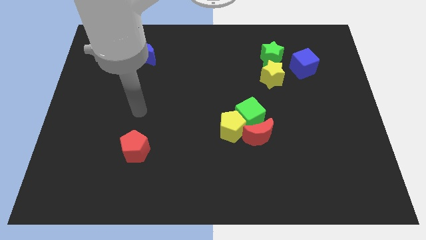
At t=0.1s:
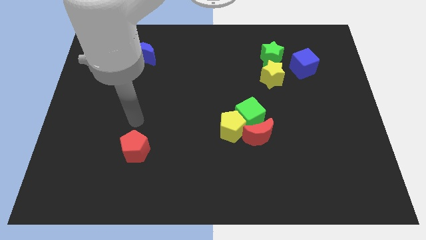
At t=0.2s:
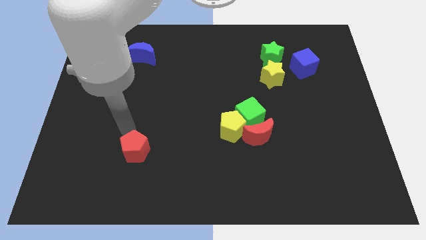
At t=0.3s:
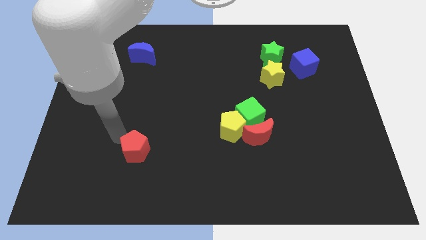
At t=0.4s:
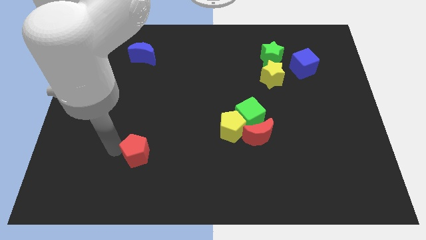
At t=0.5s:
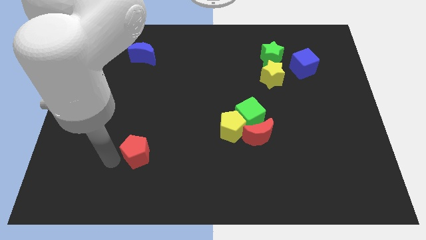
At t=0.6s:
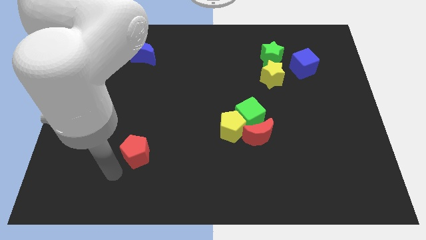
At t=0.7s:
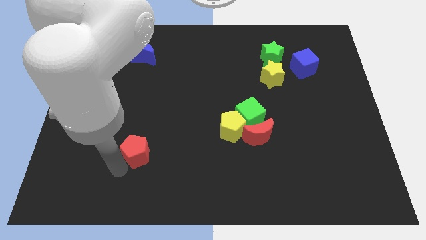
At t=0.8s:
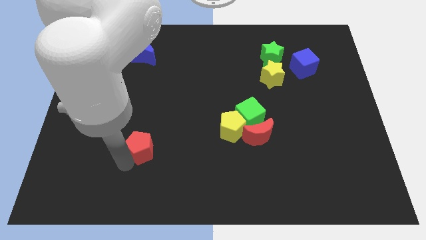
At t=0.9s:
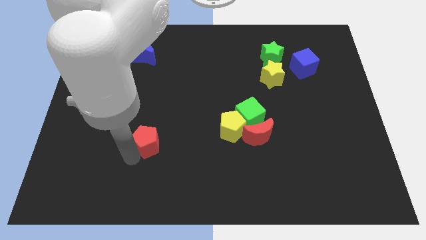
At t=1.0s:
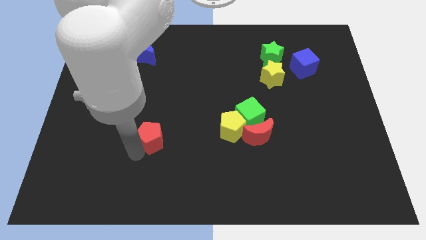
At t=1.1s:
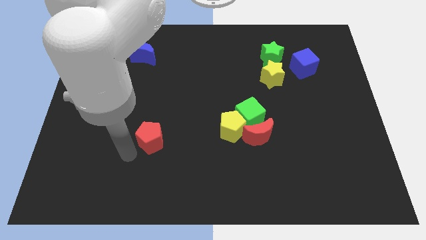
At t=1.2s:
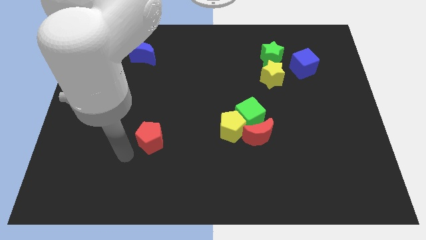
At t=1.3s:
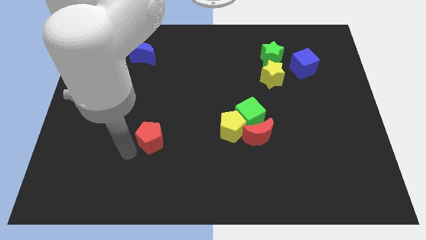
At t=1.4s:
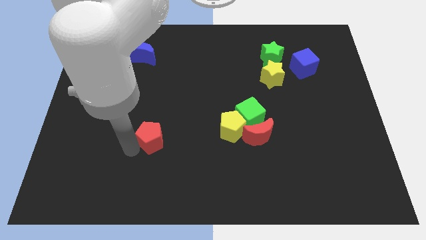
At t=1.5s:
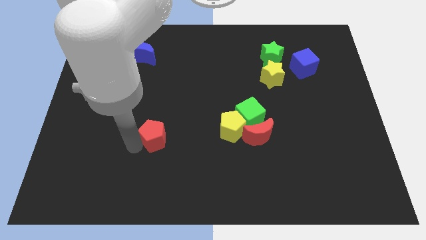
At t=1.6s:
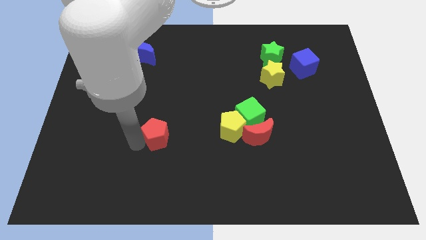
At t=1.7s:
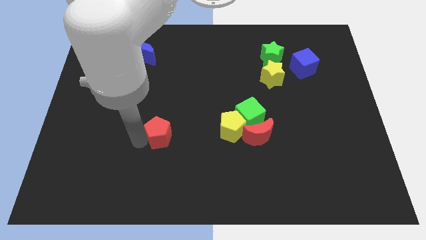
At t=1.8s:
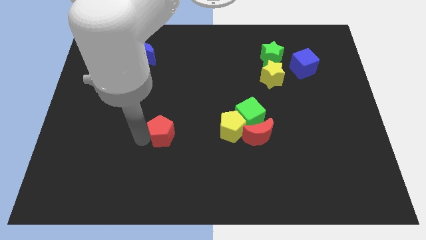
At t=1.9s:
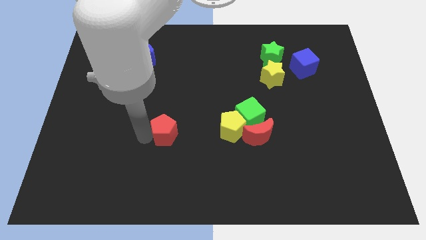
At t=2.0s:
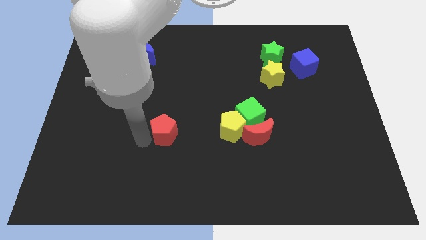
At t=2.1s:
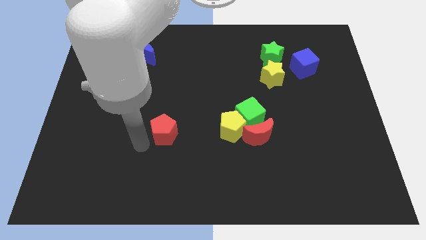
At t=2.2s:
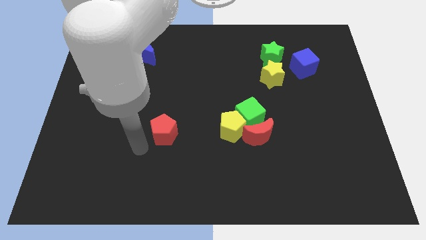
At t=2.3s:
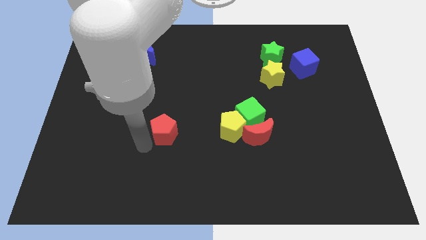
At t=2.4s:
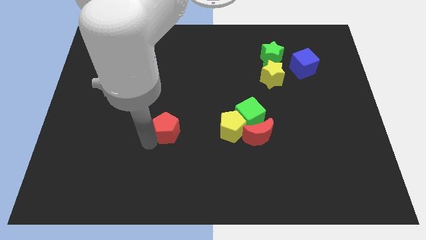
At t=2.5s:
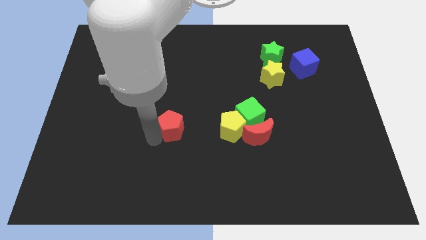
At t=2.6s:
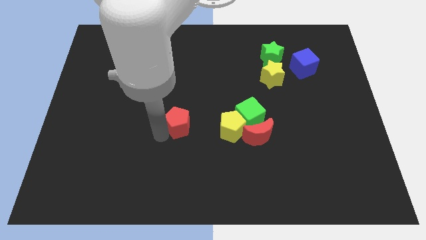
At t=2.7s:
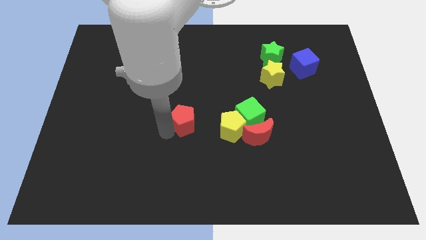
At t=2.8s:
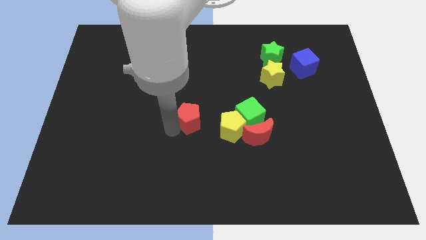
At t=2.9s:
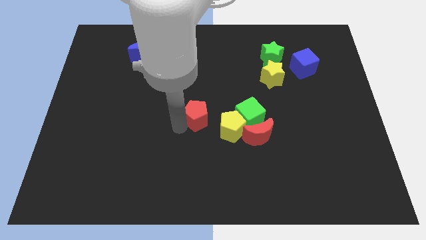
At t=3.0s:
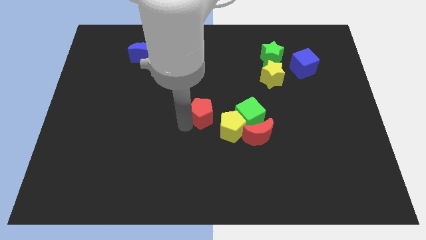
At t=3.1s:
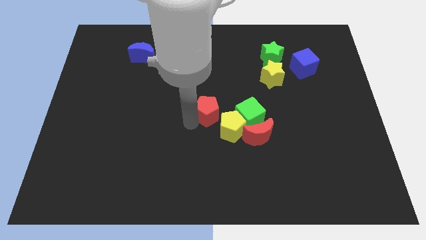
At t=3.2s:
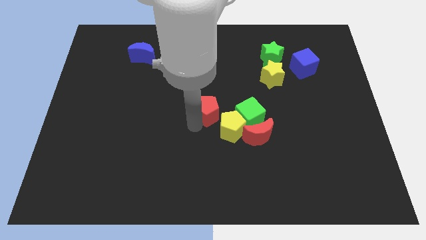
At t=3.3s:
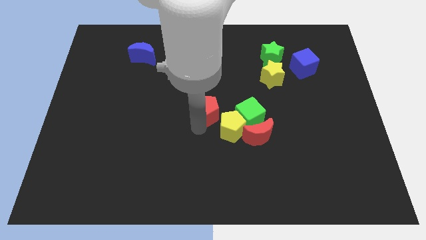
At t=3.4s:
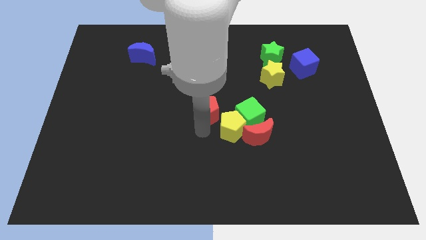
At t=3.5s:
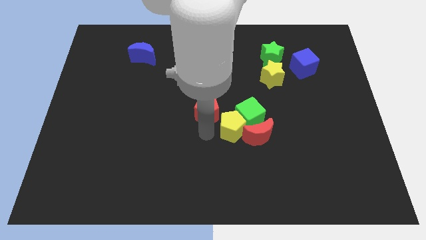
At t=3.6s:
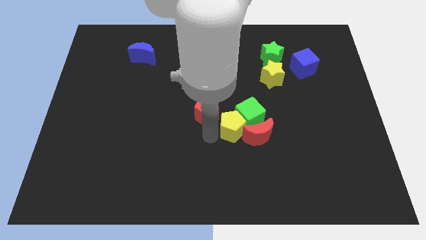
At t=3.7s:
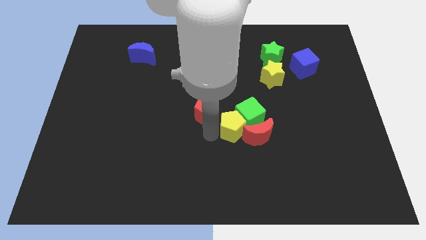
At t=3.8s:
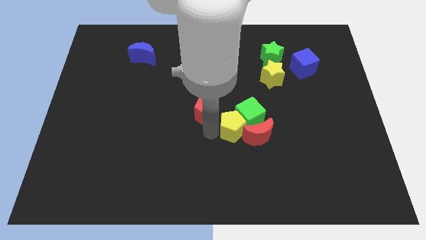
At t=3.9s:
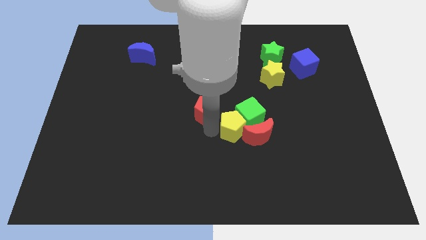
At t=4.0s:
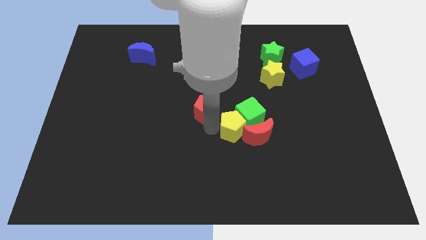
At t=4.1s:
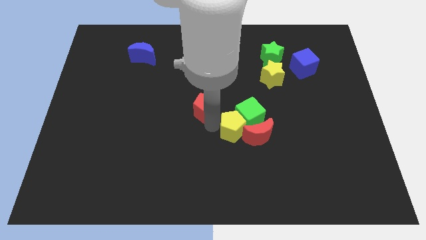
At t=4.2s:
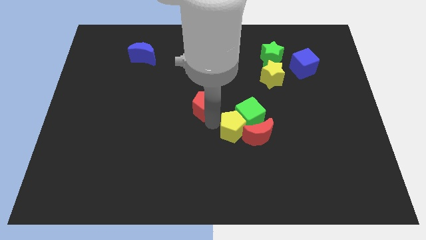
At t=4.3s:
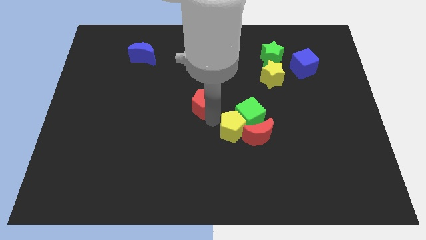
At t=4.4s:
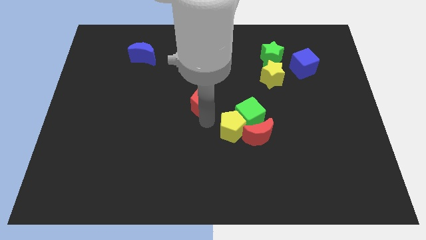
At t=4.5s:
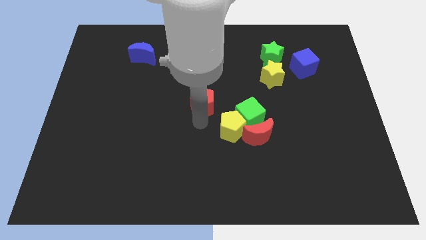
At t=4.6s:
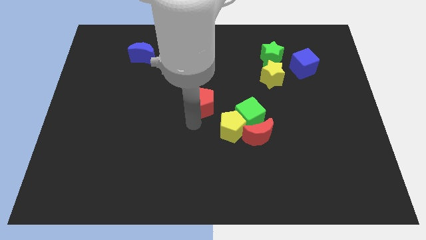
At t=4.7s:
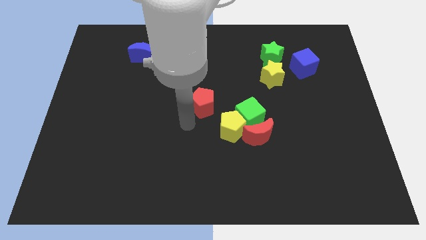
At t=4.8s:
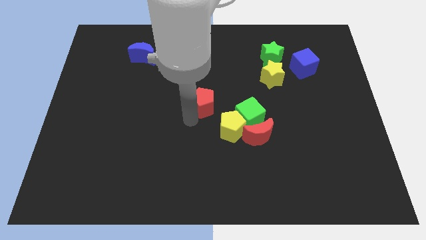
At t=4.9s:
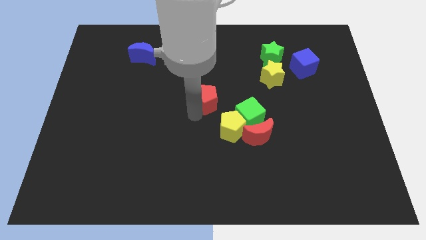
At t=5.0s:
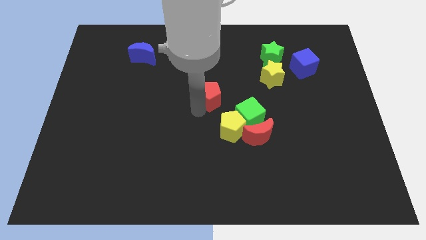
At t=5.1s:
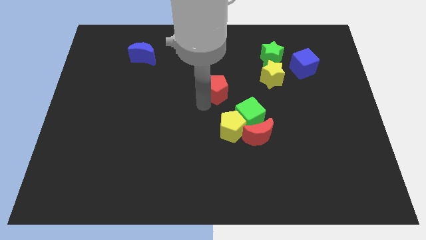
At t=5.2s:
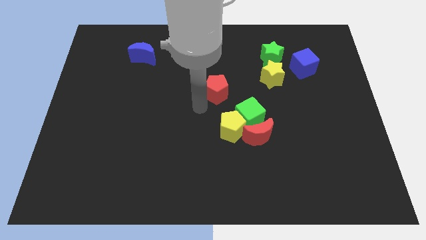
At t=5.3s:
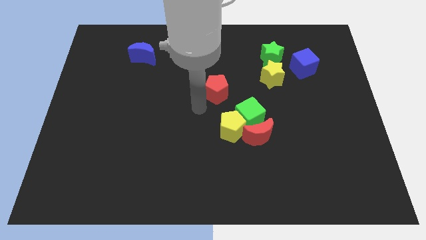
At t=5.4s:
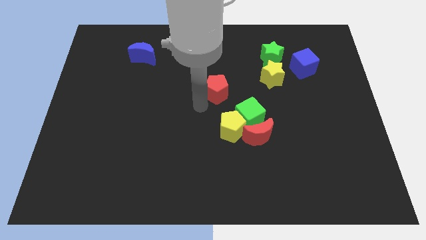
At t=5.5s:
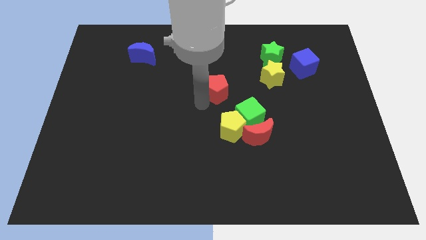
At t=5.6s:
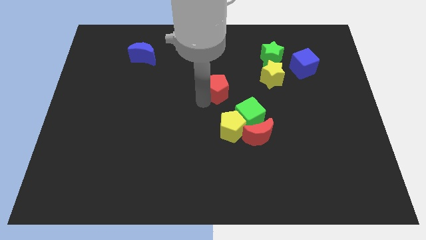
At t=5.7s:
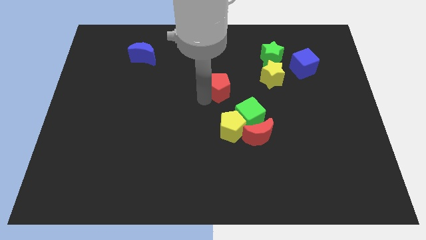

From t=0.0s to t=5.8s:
slide the red pentagon just left of the yellow star

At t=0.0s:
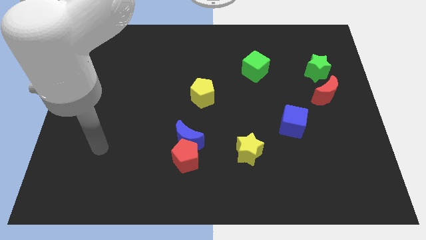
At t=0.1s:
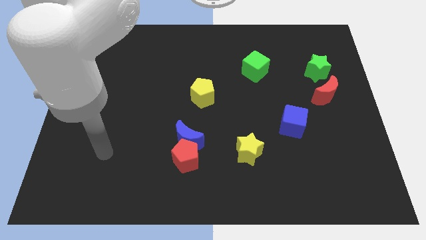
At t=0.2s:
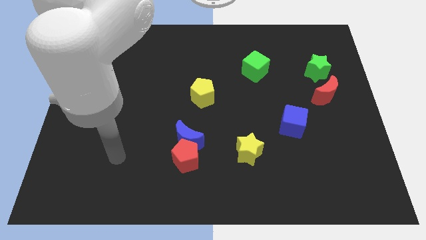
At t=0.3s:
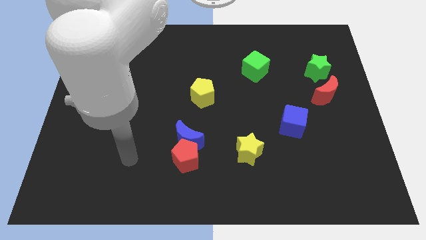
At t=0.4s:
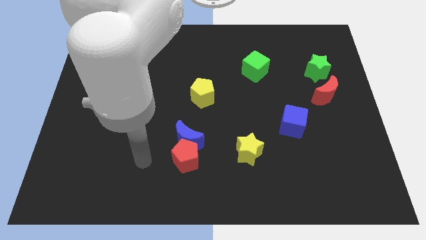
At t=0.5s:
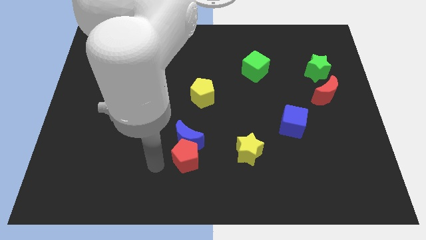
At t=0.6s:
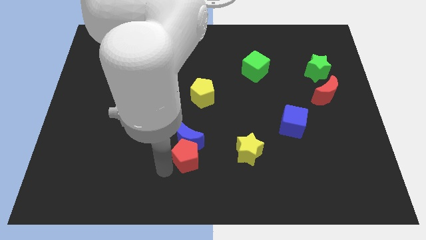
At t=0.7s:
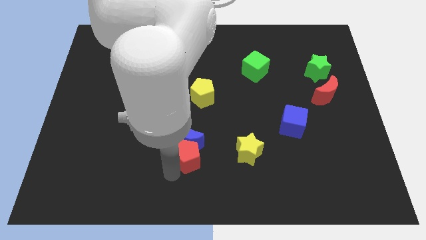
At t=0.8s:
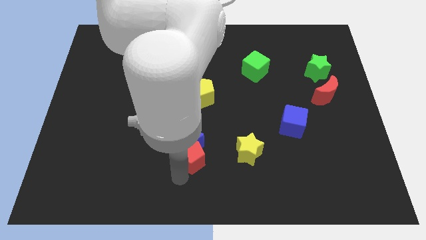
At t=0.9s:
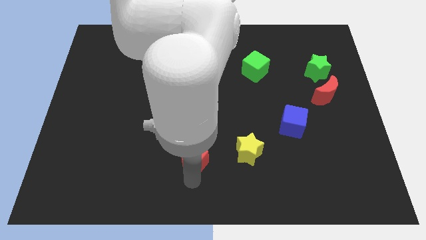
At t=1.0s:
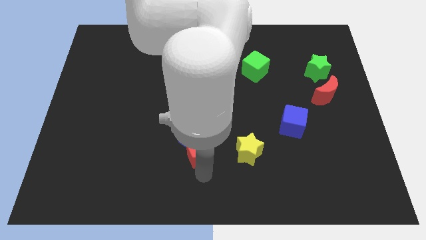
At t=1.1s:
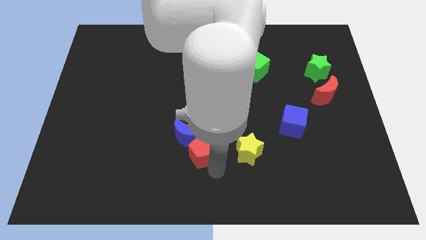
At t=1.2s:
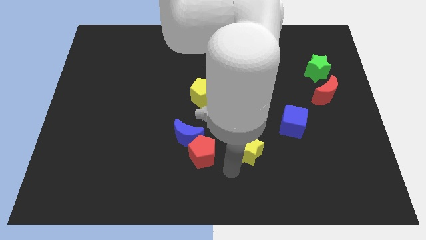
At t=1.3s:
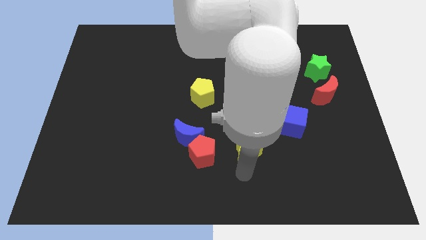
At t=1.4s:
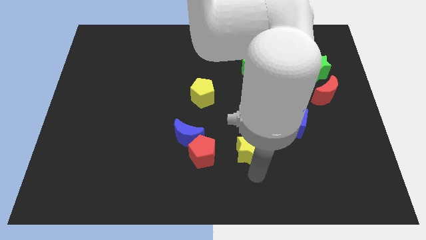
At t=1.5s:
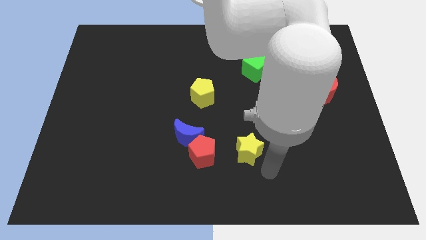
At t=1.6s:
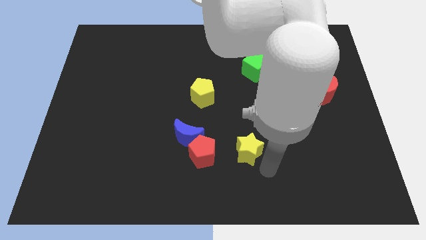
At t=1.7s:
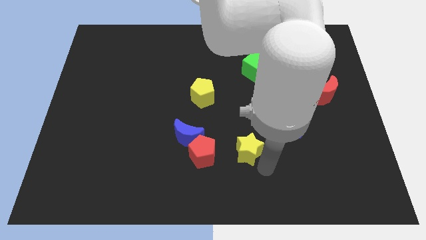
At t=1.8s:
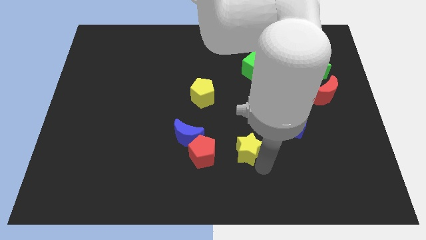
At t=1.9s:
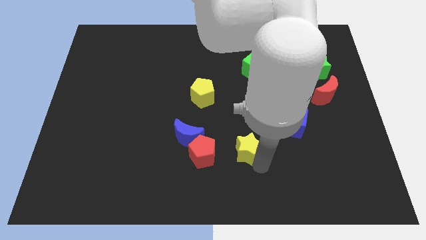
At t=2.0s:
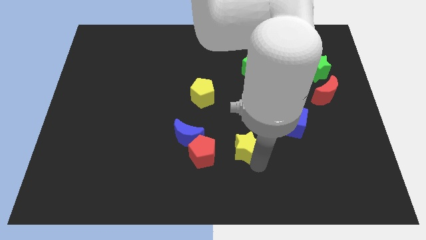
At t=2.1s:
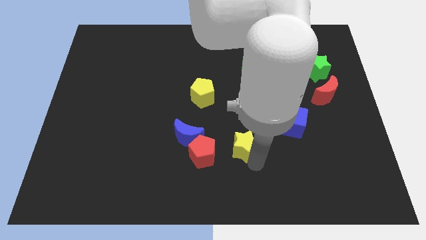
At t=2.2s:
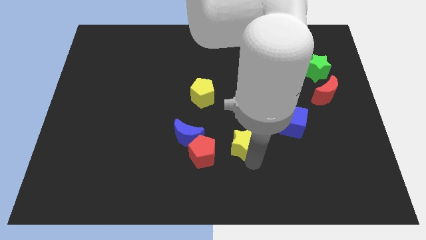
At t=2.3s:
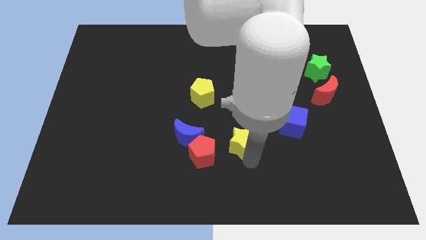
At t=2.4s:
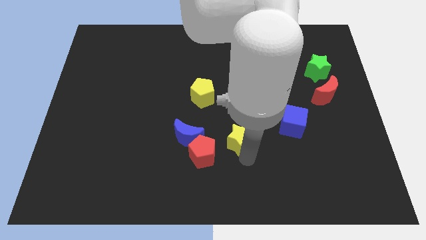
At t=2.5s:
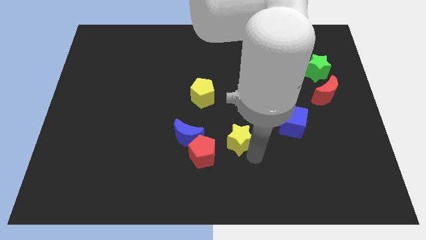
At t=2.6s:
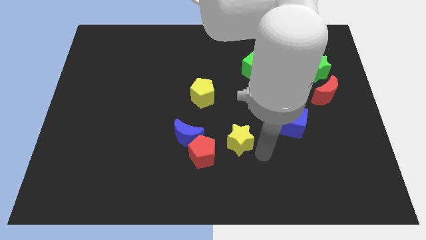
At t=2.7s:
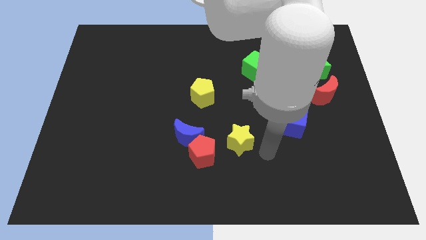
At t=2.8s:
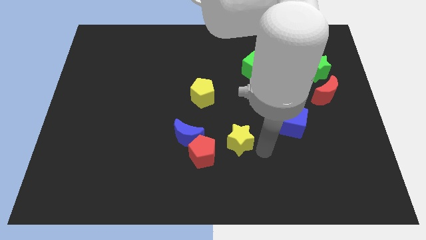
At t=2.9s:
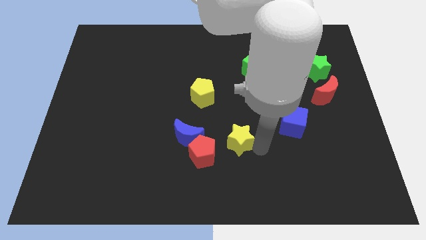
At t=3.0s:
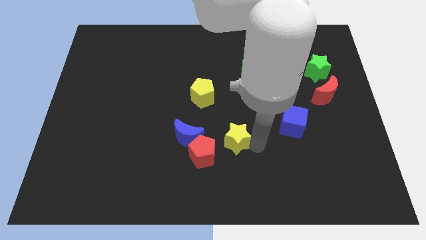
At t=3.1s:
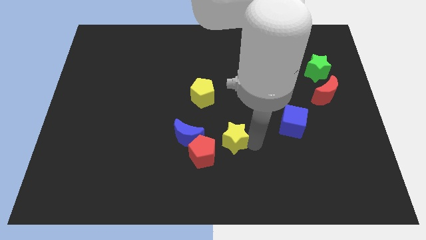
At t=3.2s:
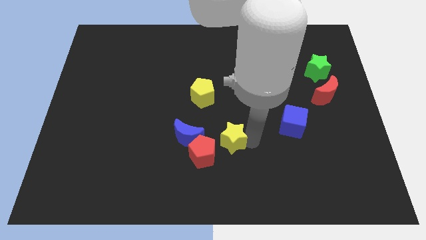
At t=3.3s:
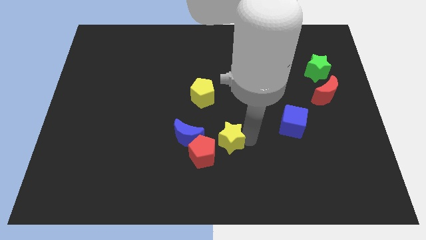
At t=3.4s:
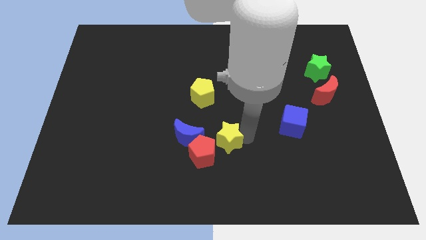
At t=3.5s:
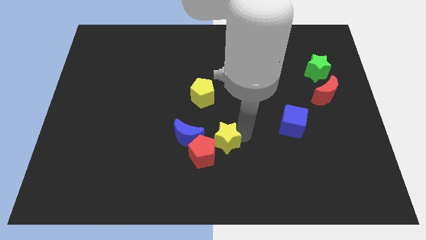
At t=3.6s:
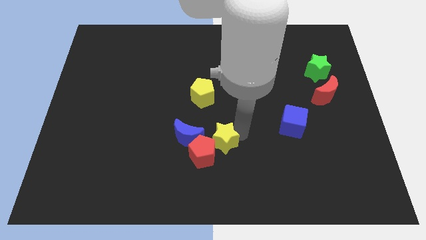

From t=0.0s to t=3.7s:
put the yellow star to the top side of the red pentagon
